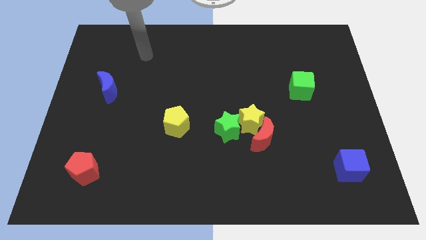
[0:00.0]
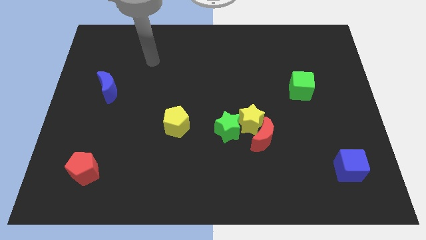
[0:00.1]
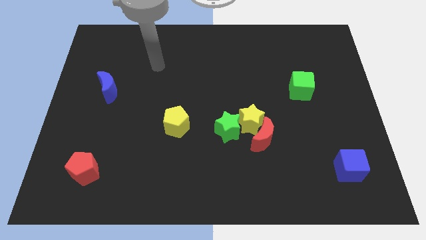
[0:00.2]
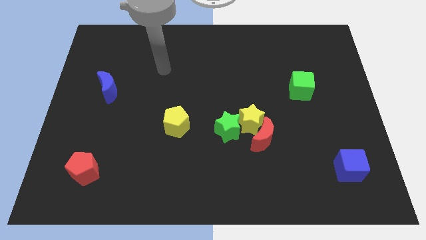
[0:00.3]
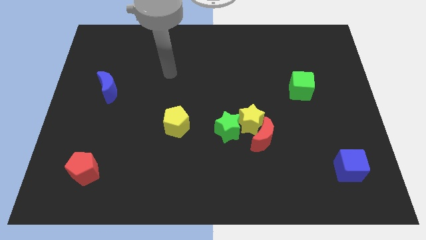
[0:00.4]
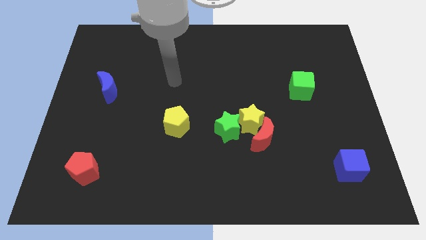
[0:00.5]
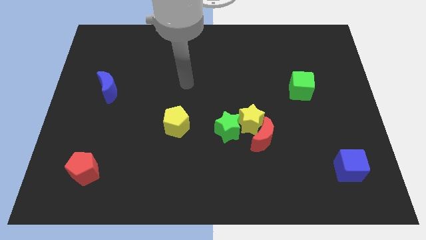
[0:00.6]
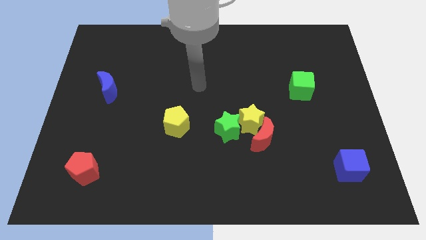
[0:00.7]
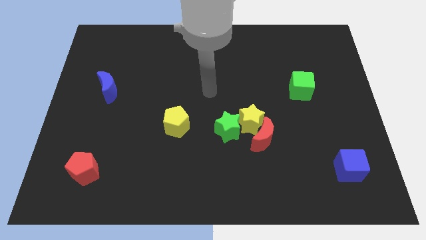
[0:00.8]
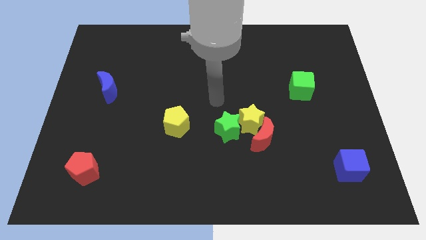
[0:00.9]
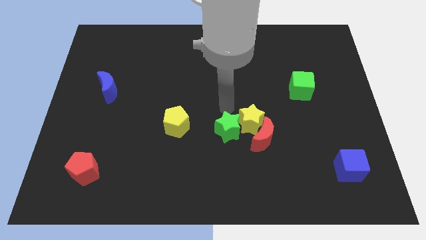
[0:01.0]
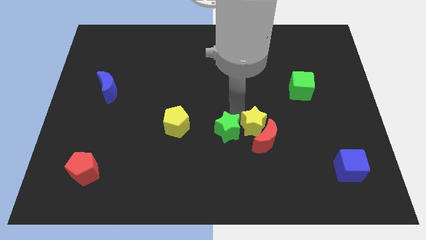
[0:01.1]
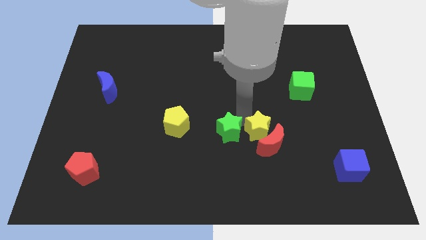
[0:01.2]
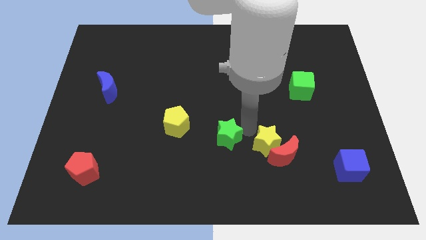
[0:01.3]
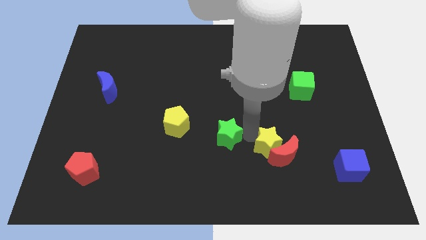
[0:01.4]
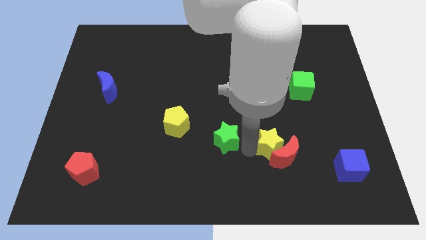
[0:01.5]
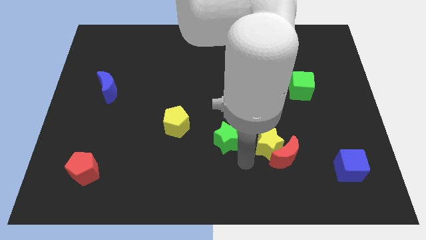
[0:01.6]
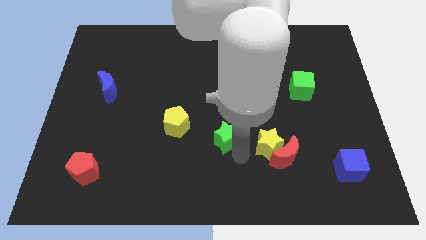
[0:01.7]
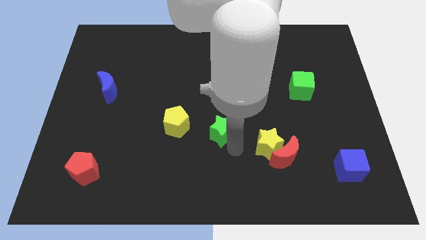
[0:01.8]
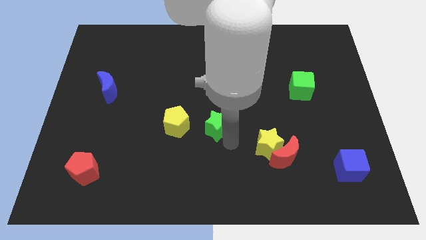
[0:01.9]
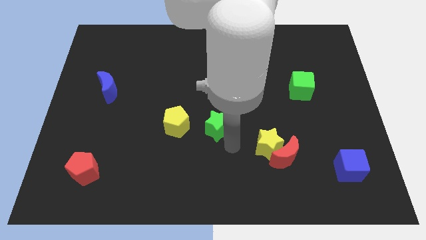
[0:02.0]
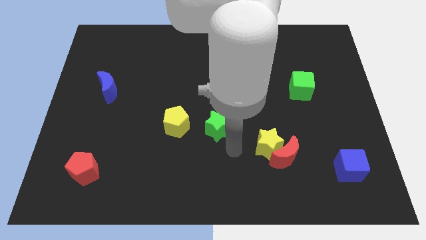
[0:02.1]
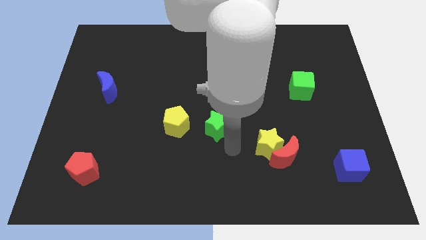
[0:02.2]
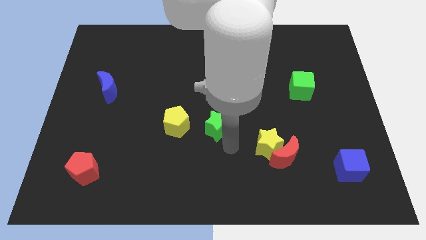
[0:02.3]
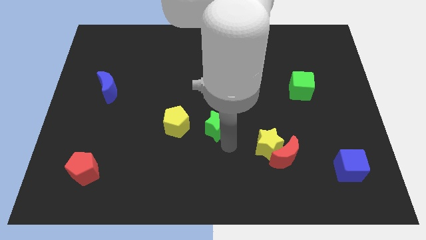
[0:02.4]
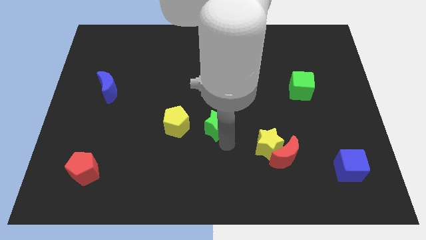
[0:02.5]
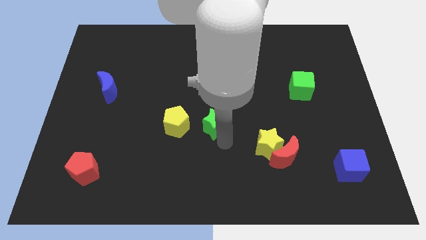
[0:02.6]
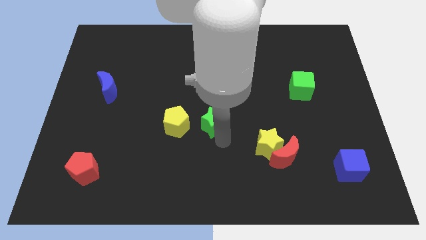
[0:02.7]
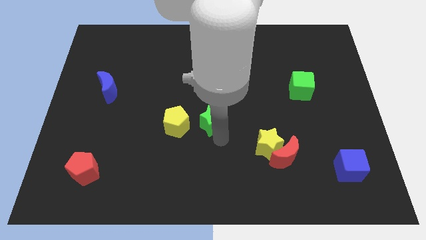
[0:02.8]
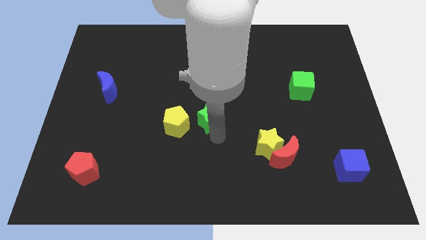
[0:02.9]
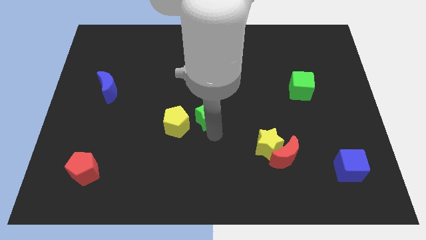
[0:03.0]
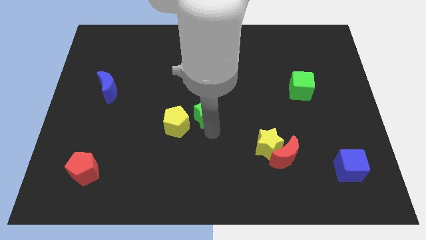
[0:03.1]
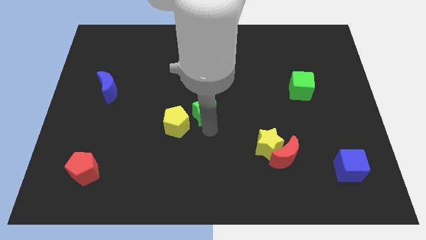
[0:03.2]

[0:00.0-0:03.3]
slightly move the green star upwards and to the left

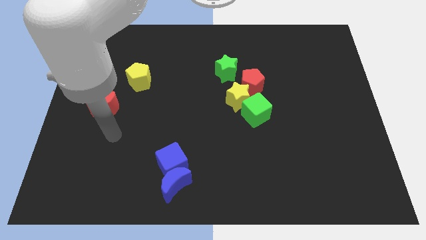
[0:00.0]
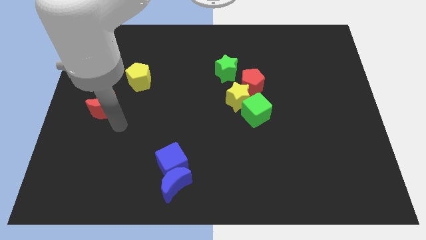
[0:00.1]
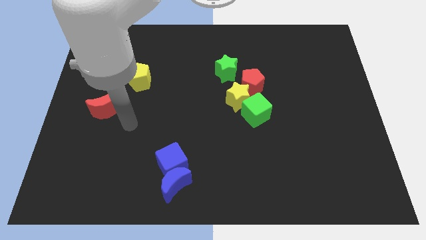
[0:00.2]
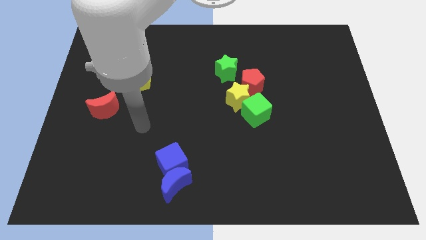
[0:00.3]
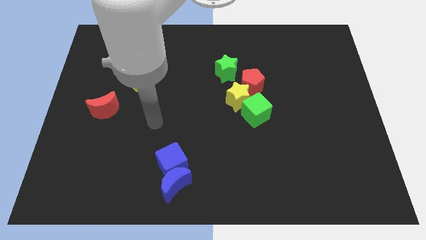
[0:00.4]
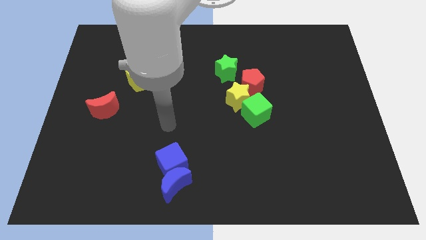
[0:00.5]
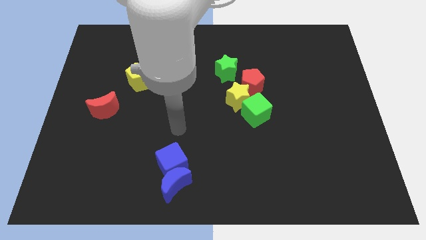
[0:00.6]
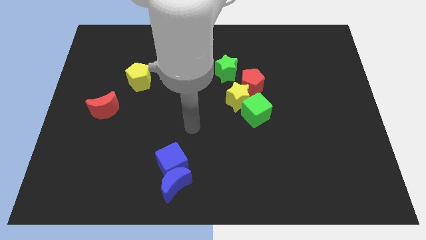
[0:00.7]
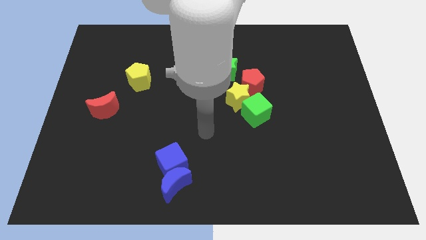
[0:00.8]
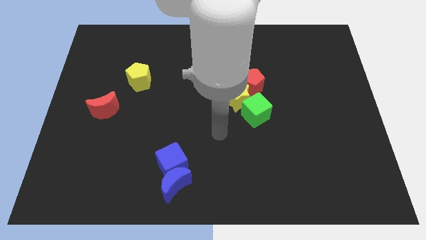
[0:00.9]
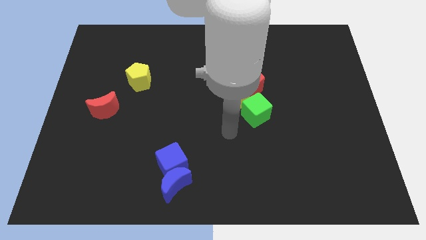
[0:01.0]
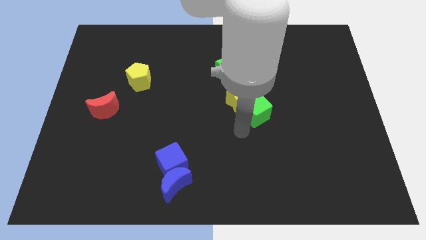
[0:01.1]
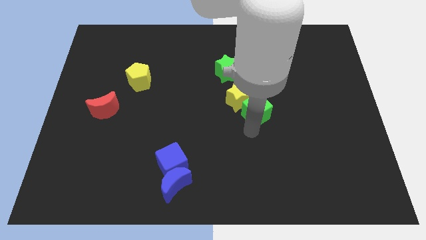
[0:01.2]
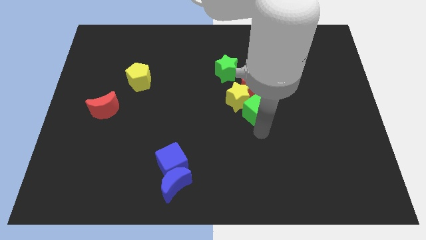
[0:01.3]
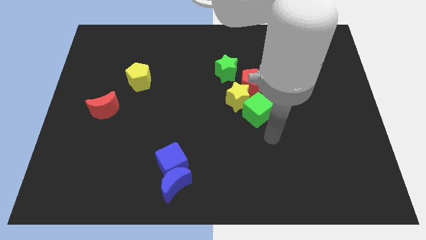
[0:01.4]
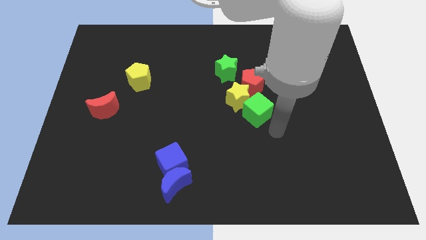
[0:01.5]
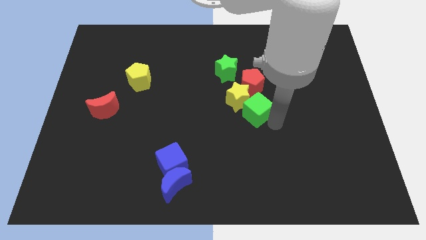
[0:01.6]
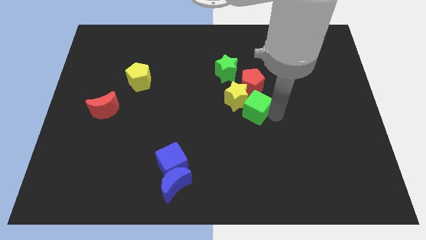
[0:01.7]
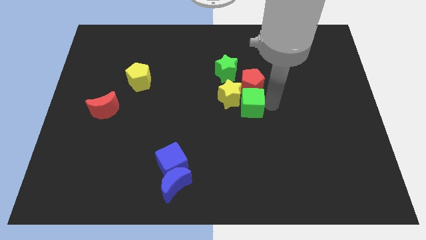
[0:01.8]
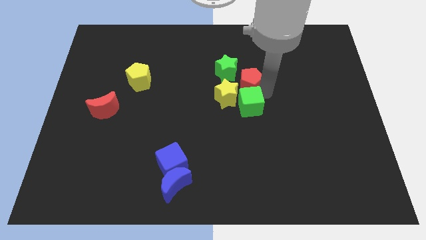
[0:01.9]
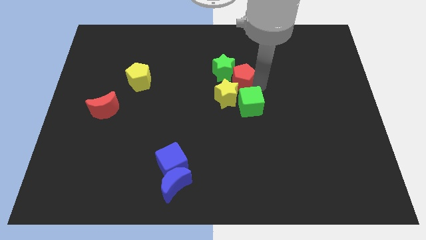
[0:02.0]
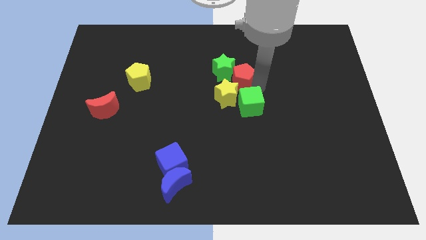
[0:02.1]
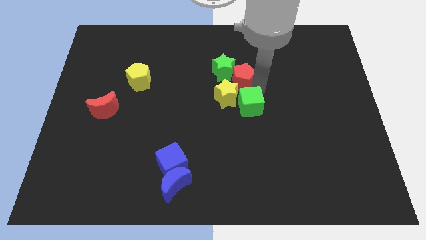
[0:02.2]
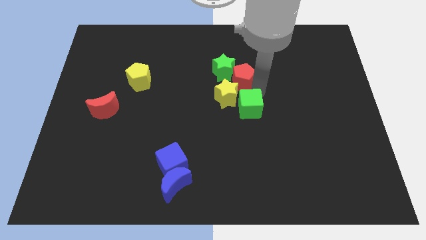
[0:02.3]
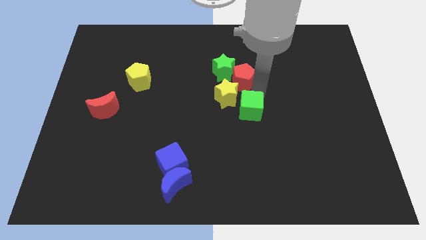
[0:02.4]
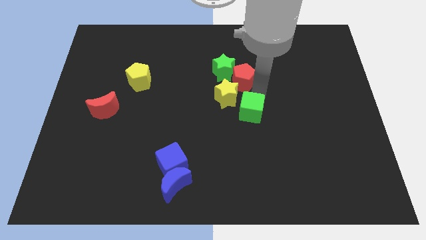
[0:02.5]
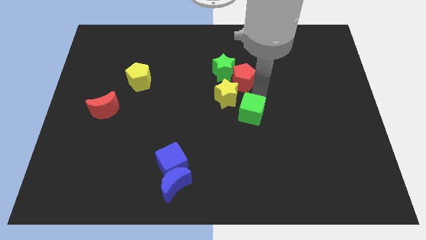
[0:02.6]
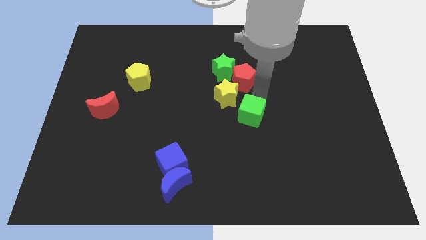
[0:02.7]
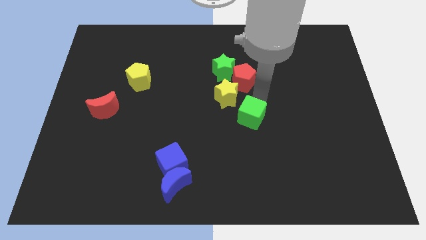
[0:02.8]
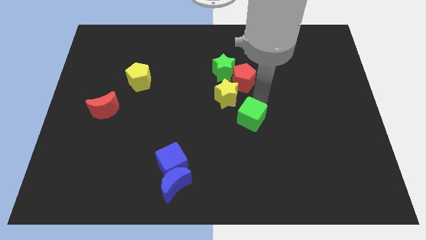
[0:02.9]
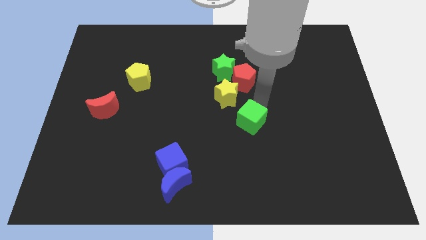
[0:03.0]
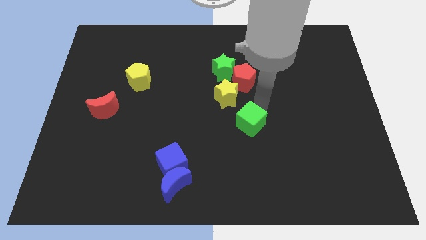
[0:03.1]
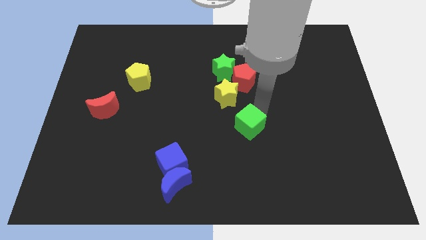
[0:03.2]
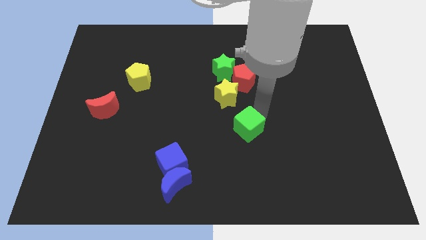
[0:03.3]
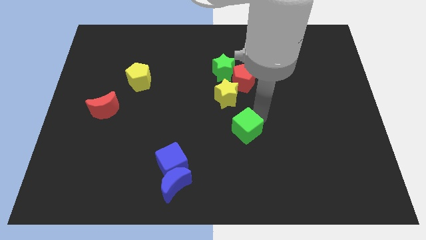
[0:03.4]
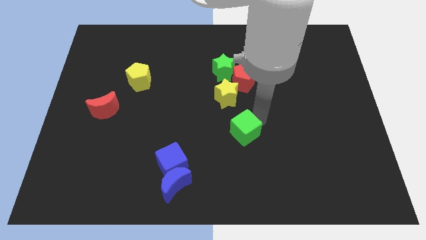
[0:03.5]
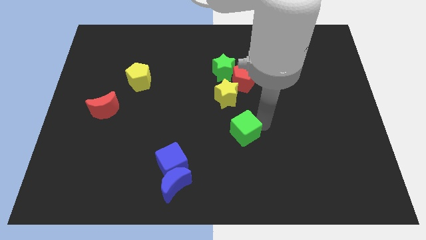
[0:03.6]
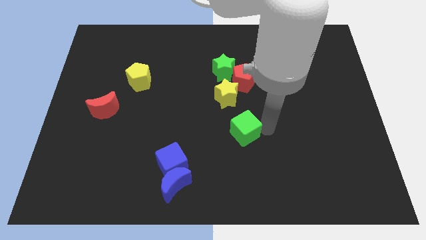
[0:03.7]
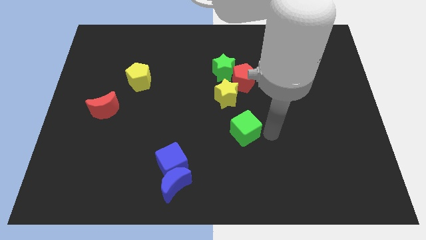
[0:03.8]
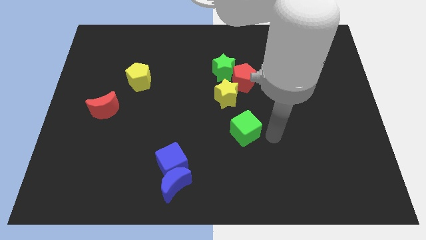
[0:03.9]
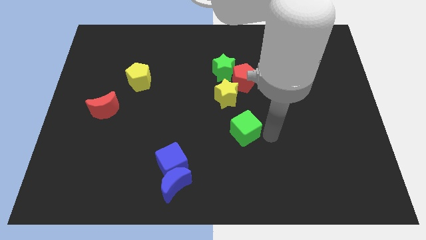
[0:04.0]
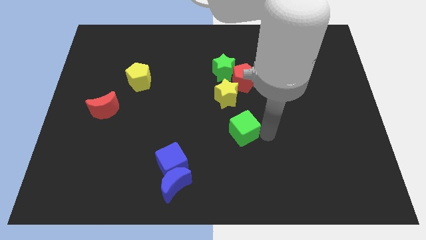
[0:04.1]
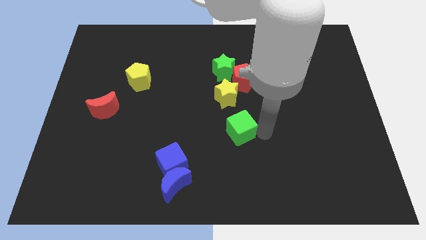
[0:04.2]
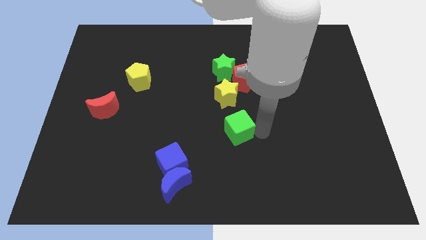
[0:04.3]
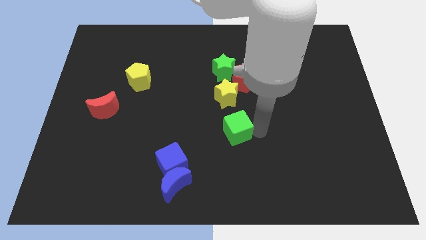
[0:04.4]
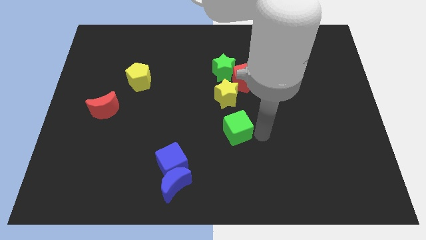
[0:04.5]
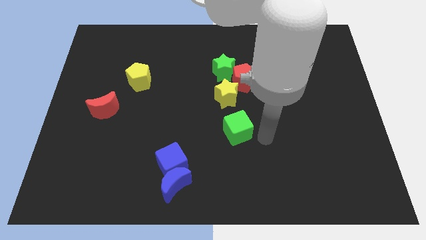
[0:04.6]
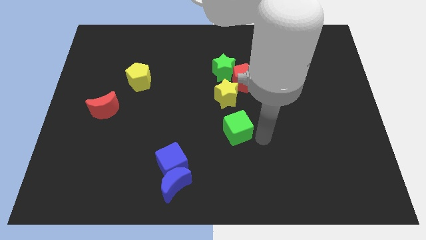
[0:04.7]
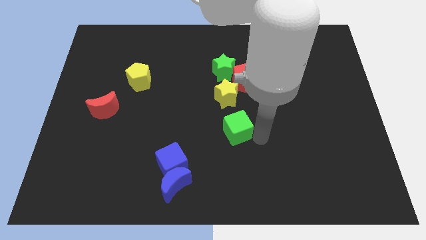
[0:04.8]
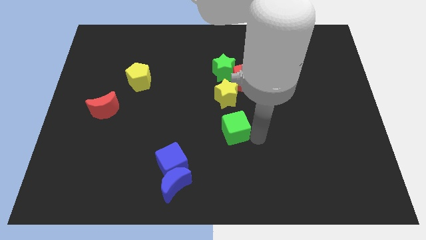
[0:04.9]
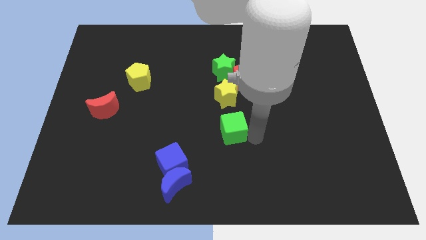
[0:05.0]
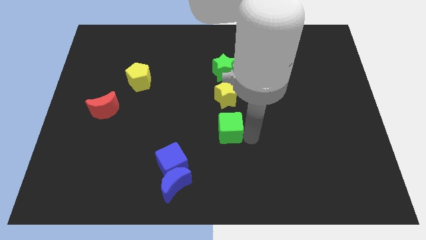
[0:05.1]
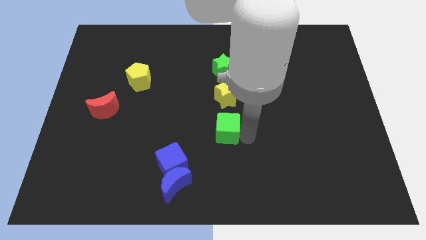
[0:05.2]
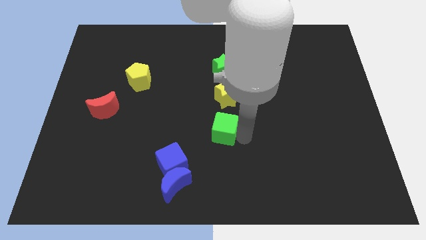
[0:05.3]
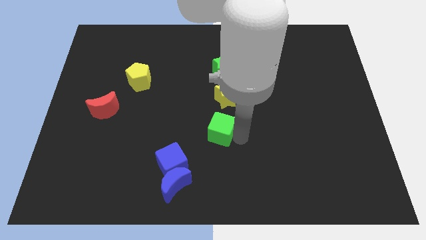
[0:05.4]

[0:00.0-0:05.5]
push the green cube to the left a little
